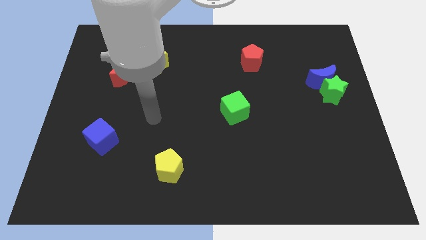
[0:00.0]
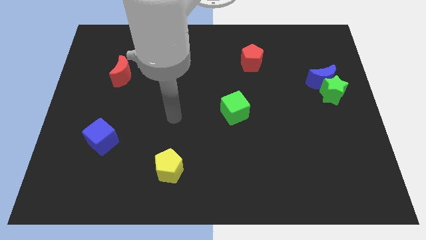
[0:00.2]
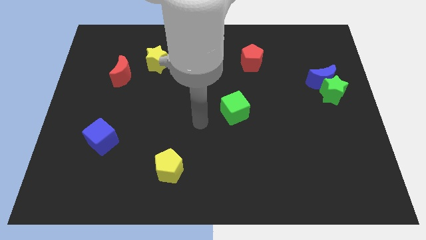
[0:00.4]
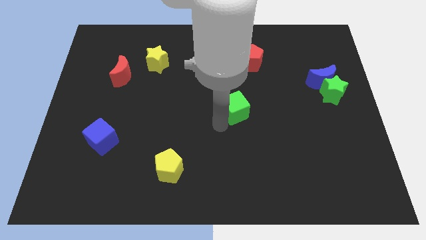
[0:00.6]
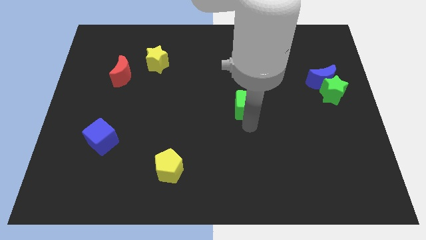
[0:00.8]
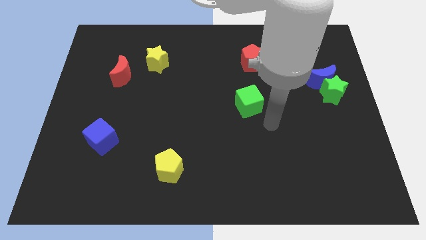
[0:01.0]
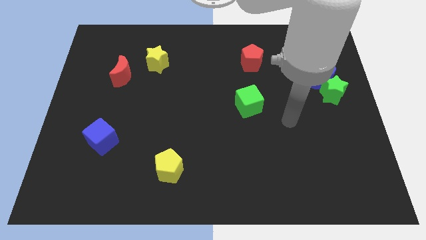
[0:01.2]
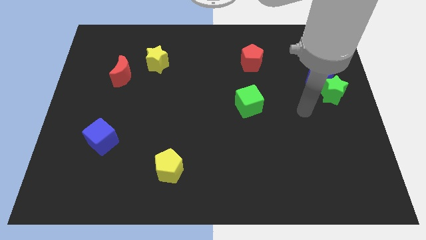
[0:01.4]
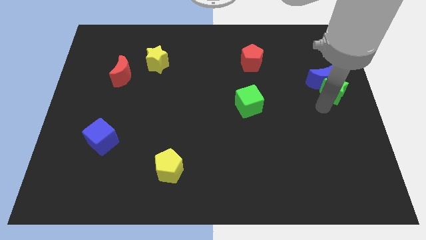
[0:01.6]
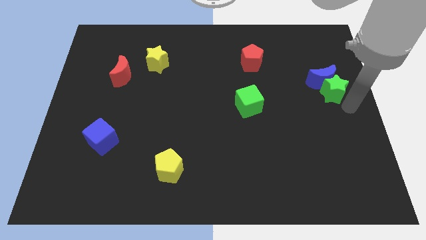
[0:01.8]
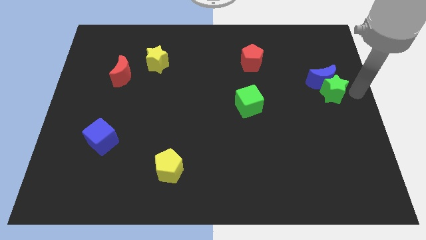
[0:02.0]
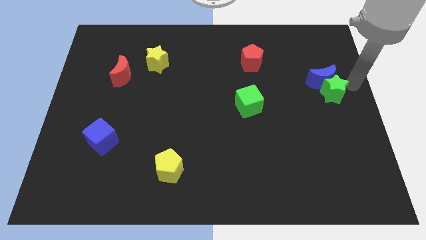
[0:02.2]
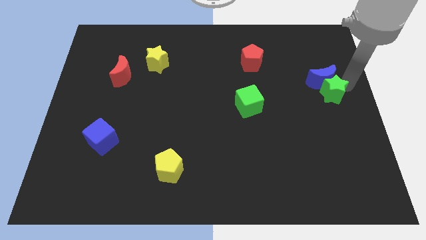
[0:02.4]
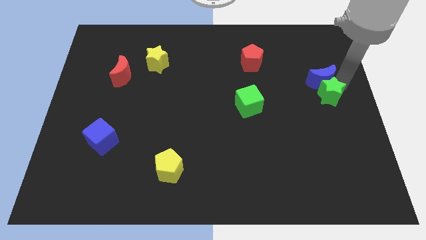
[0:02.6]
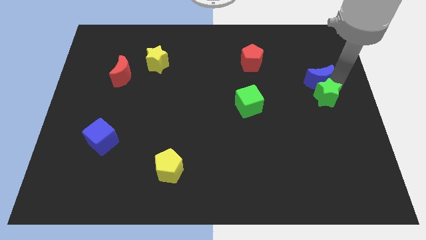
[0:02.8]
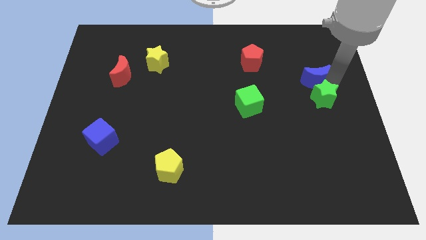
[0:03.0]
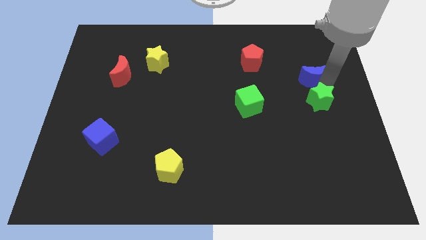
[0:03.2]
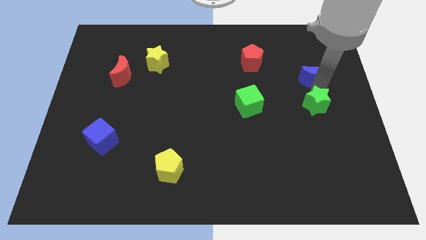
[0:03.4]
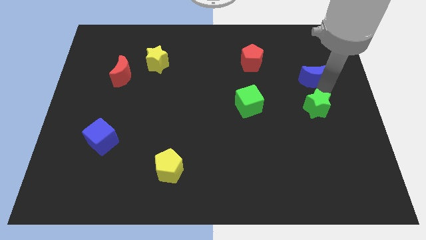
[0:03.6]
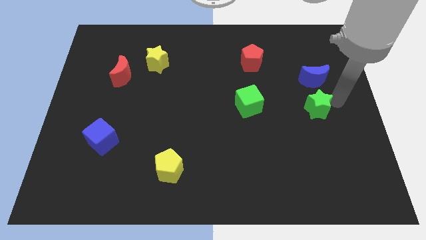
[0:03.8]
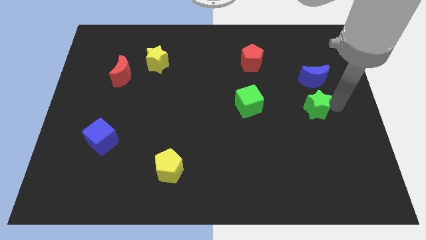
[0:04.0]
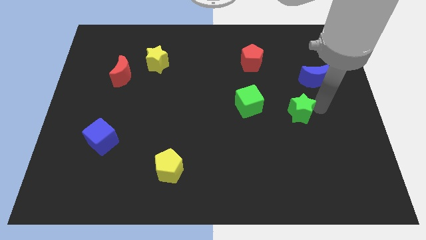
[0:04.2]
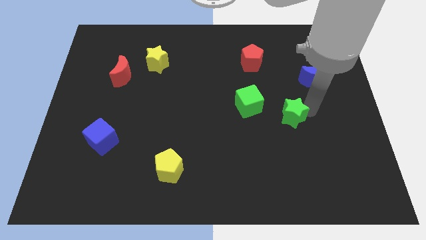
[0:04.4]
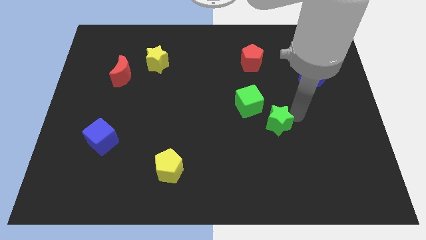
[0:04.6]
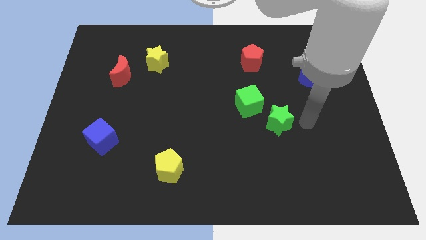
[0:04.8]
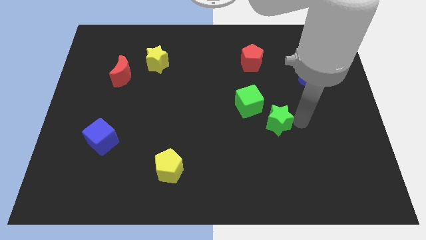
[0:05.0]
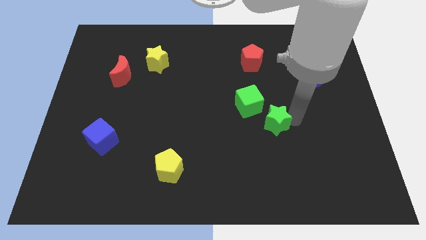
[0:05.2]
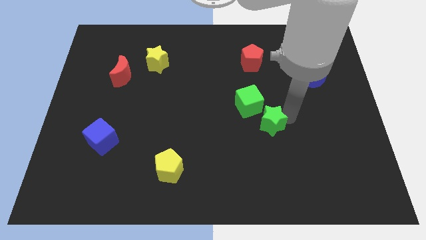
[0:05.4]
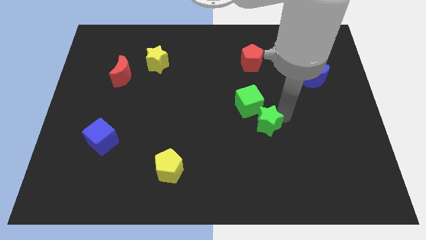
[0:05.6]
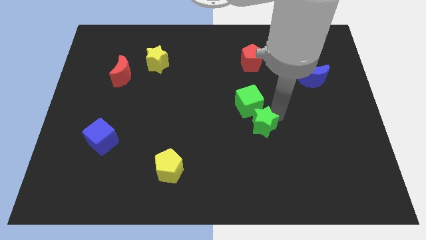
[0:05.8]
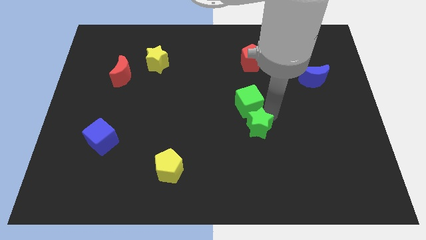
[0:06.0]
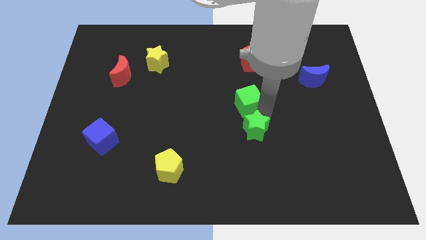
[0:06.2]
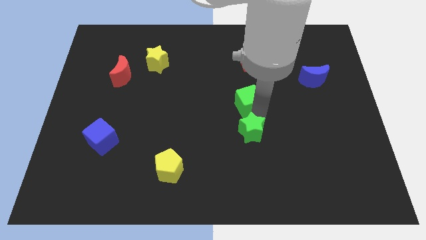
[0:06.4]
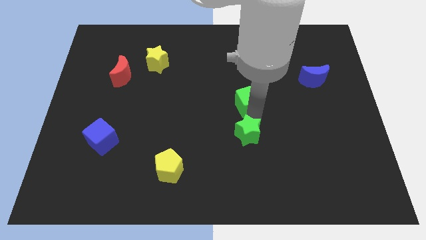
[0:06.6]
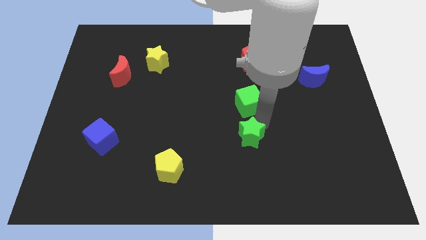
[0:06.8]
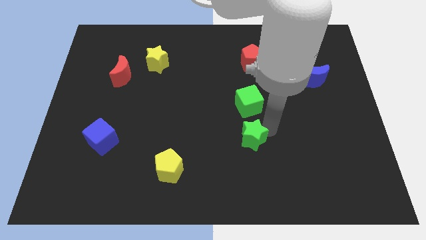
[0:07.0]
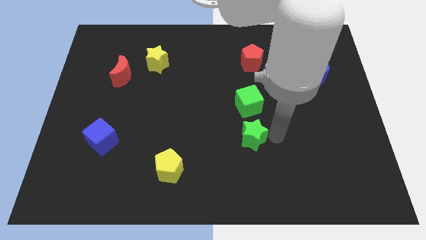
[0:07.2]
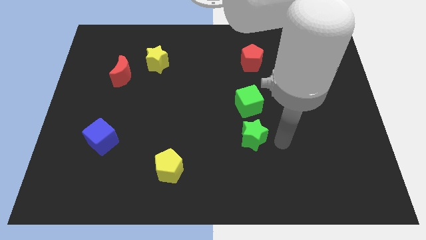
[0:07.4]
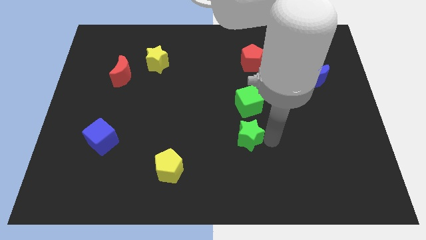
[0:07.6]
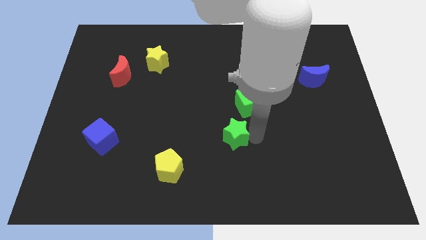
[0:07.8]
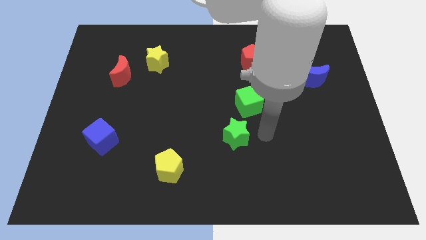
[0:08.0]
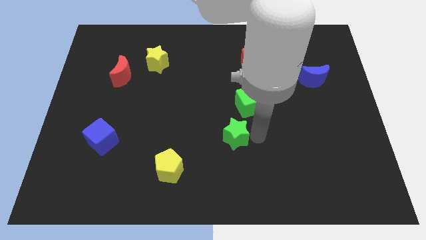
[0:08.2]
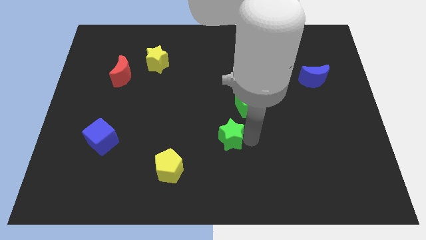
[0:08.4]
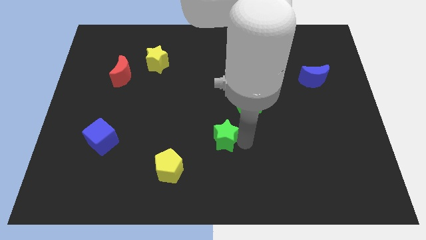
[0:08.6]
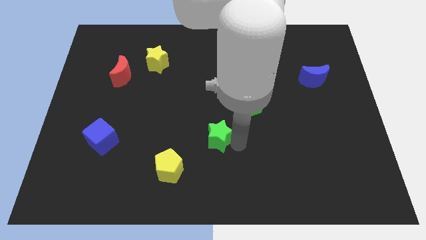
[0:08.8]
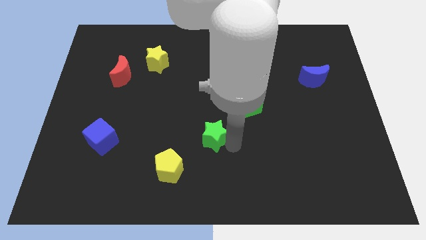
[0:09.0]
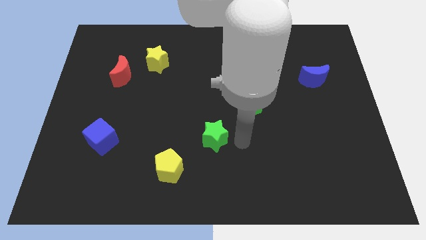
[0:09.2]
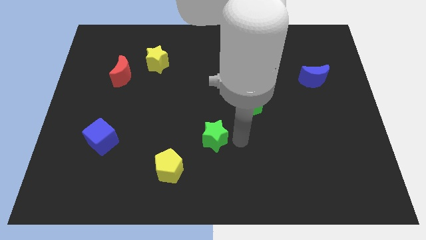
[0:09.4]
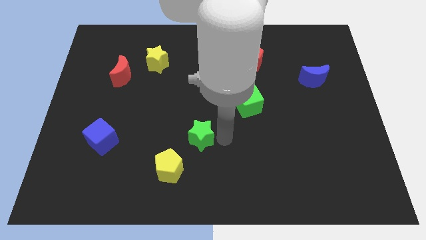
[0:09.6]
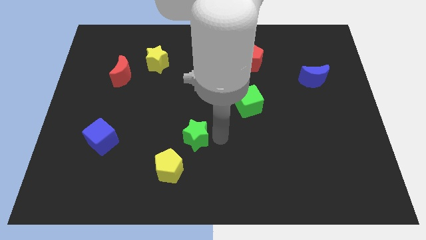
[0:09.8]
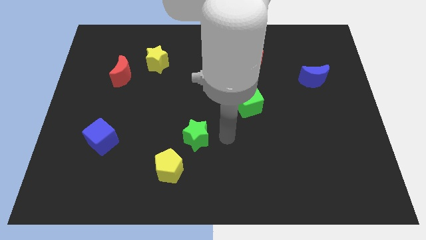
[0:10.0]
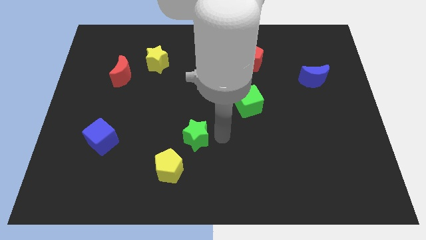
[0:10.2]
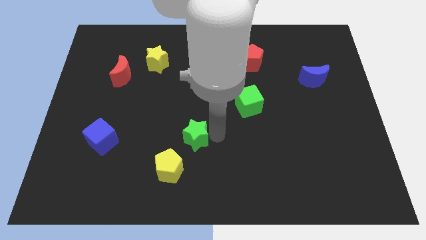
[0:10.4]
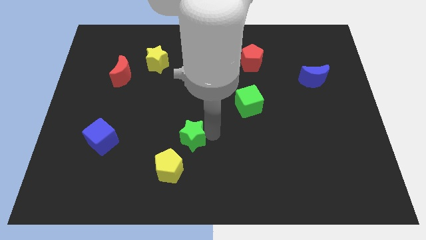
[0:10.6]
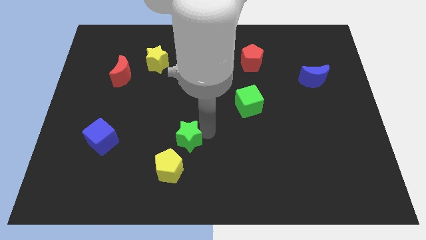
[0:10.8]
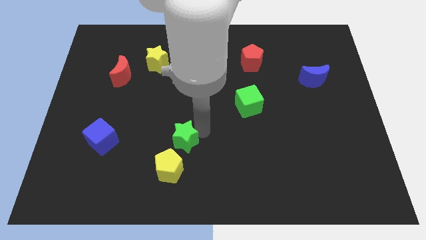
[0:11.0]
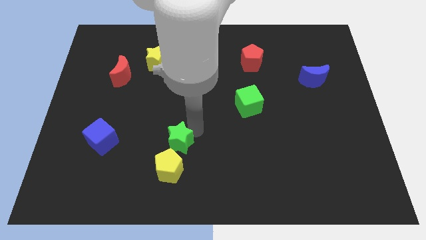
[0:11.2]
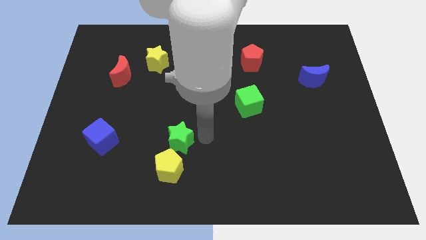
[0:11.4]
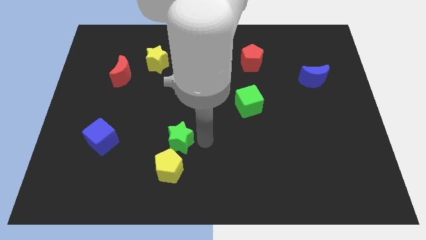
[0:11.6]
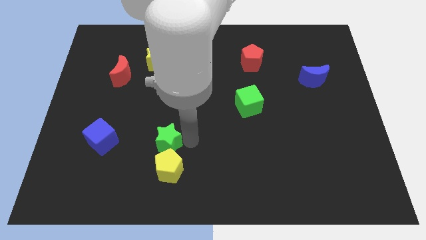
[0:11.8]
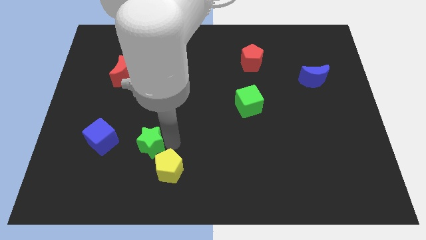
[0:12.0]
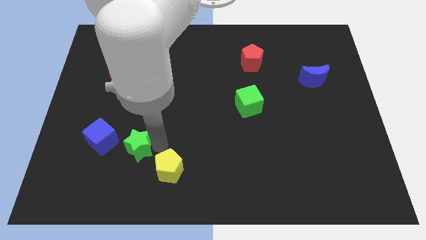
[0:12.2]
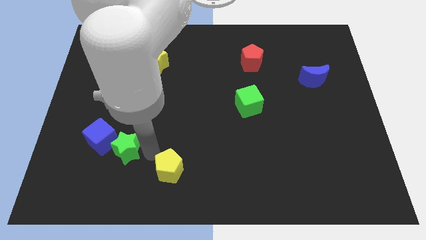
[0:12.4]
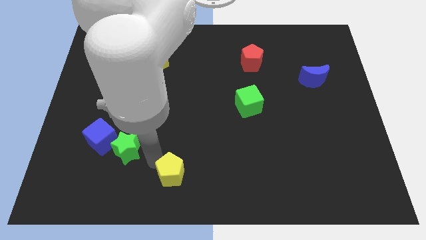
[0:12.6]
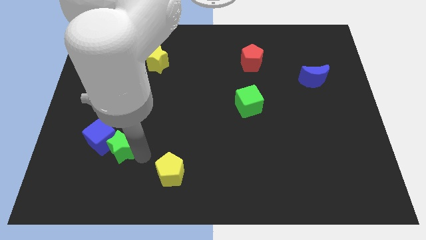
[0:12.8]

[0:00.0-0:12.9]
slide the green star towards the blue cube

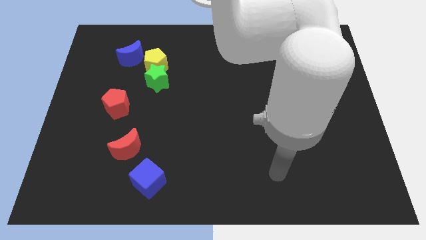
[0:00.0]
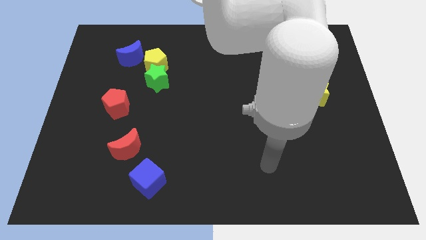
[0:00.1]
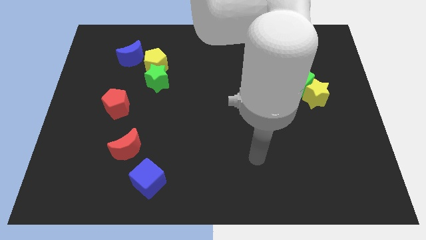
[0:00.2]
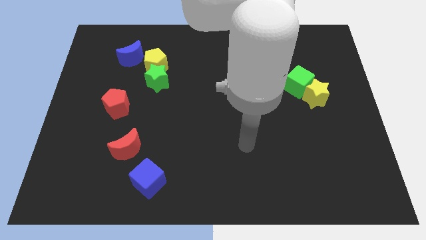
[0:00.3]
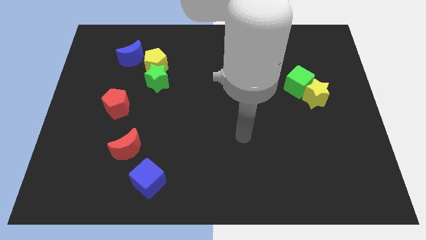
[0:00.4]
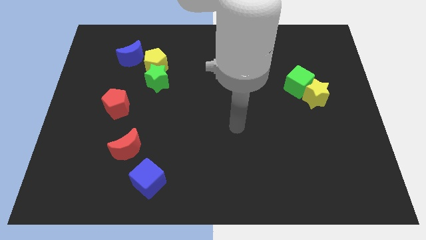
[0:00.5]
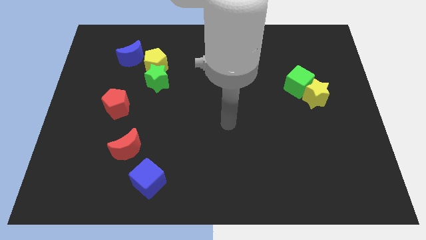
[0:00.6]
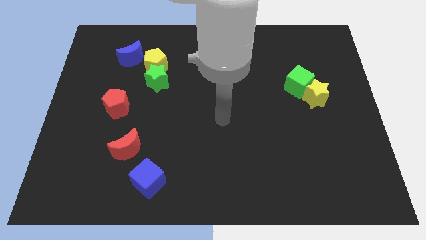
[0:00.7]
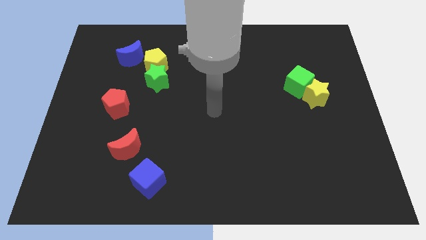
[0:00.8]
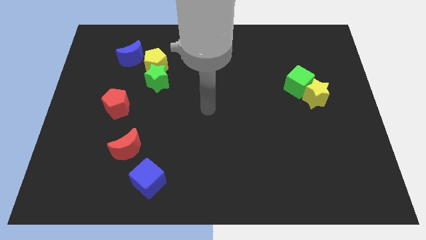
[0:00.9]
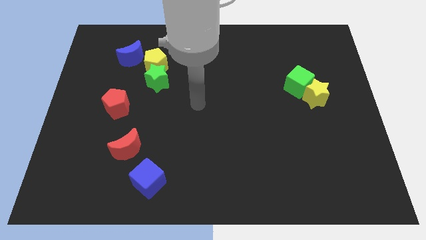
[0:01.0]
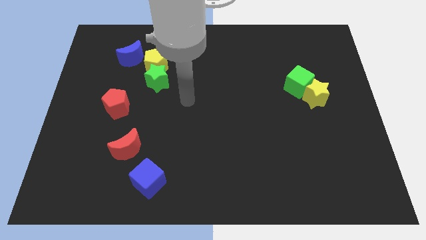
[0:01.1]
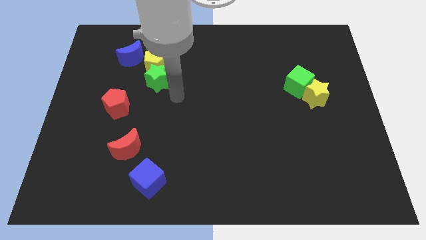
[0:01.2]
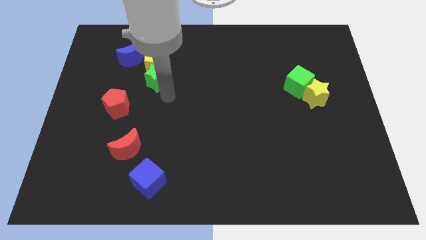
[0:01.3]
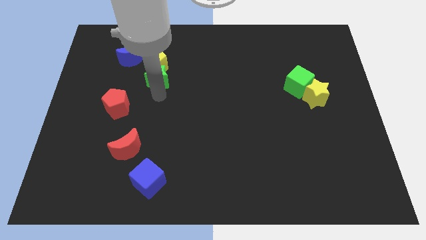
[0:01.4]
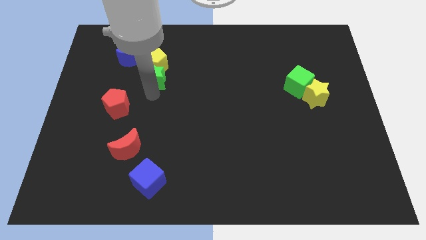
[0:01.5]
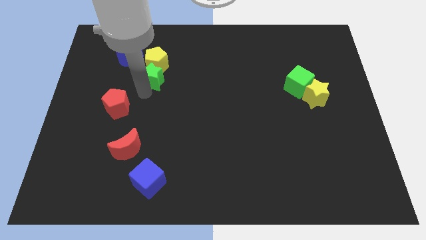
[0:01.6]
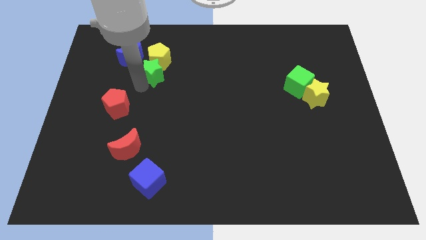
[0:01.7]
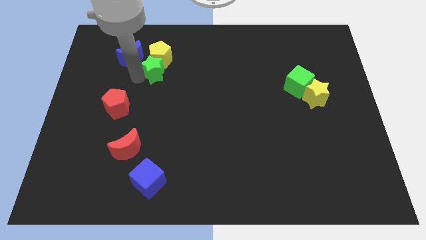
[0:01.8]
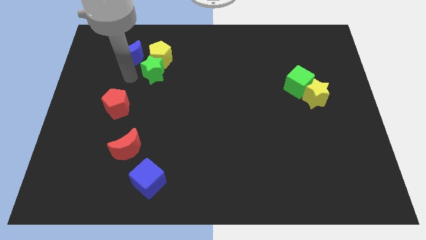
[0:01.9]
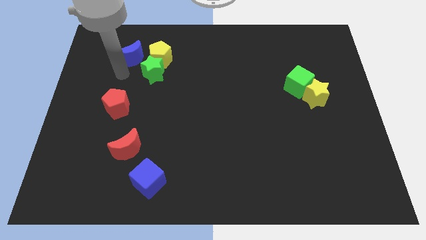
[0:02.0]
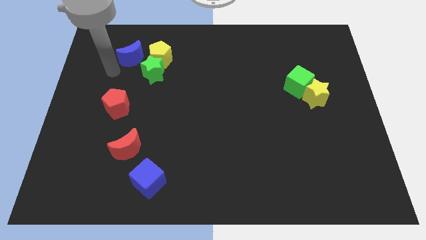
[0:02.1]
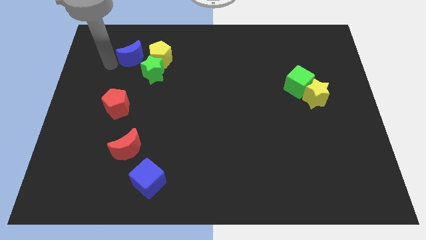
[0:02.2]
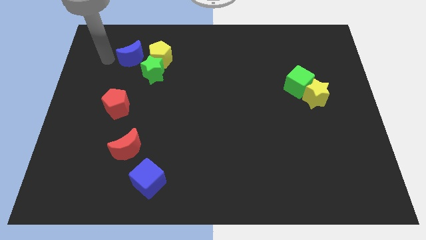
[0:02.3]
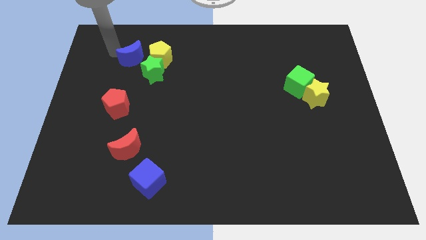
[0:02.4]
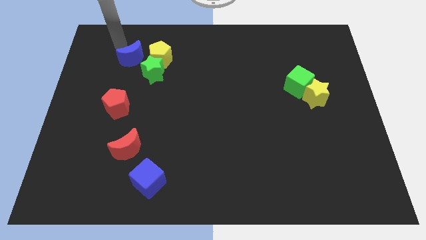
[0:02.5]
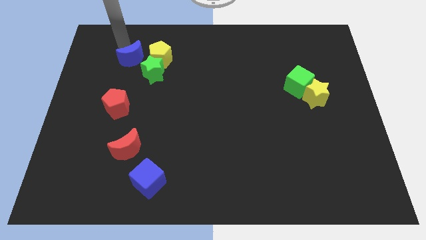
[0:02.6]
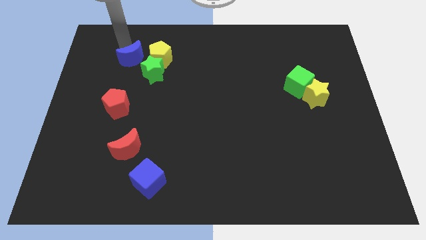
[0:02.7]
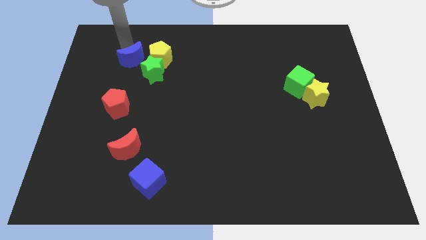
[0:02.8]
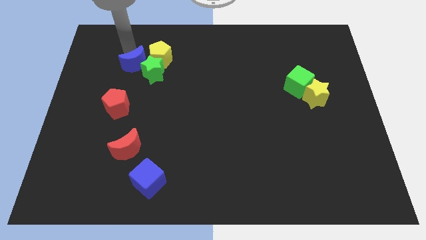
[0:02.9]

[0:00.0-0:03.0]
push the blue moon to the green star
